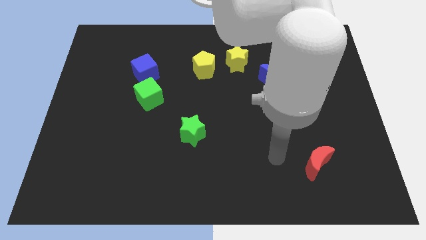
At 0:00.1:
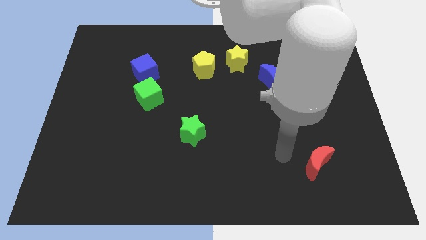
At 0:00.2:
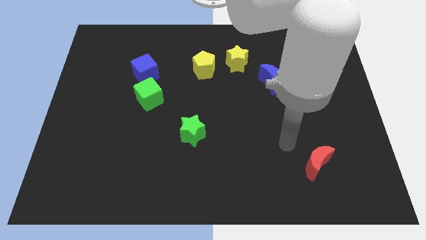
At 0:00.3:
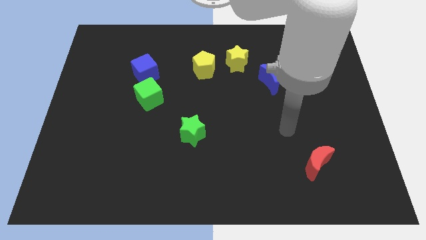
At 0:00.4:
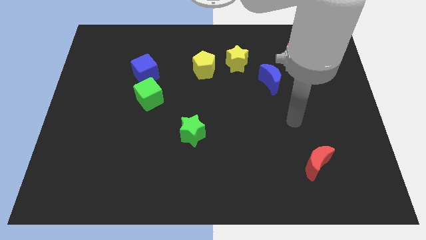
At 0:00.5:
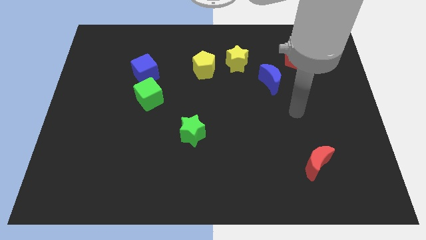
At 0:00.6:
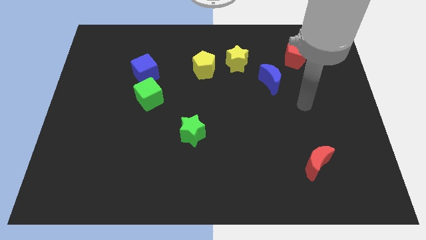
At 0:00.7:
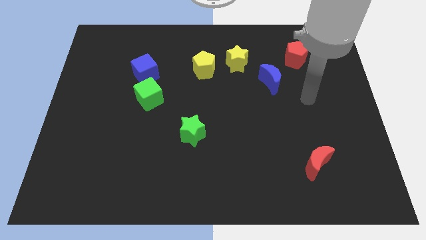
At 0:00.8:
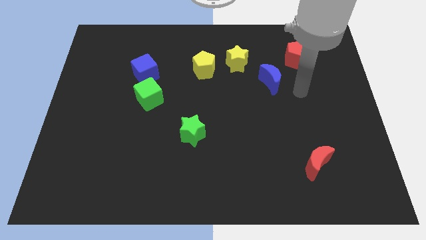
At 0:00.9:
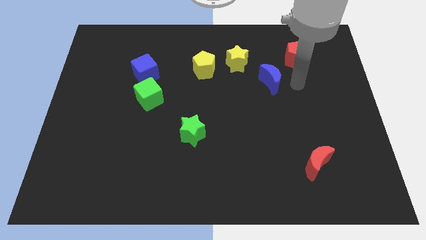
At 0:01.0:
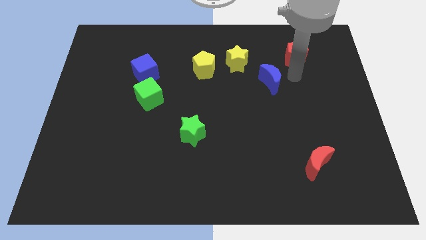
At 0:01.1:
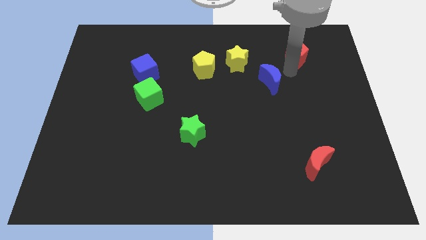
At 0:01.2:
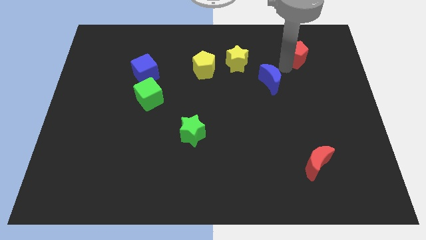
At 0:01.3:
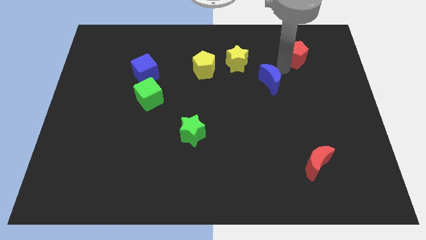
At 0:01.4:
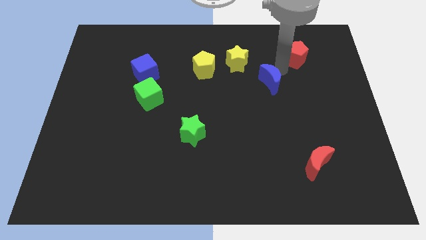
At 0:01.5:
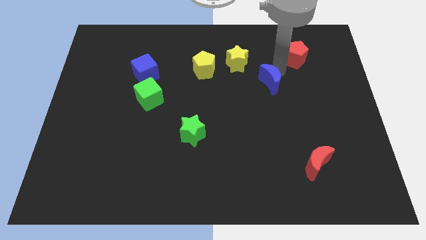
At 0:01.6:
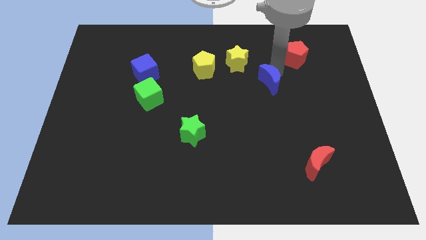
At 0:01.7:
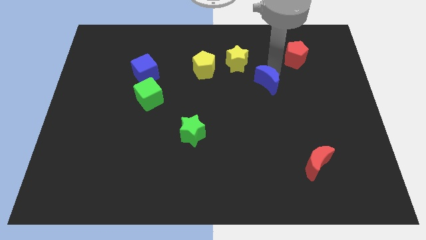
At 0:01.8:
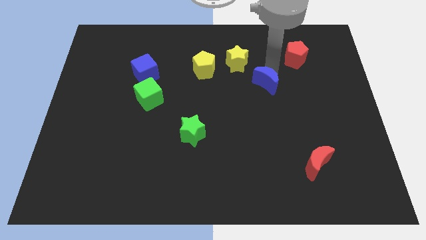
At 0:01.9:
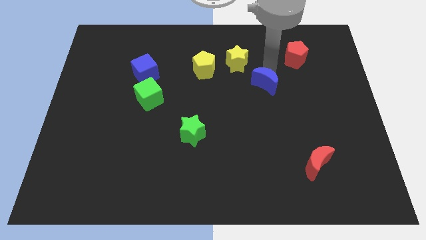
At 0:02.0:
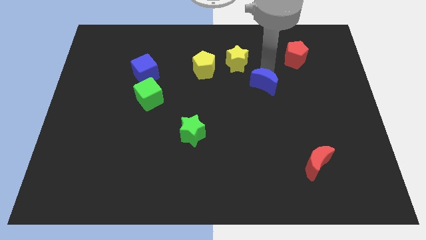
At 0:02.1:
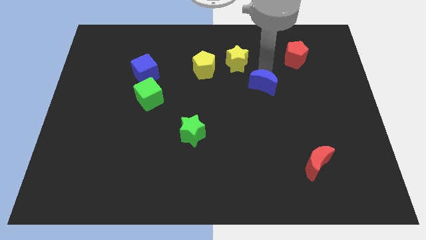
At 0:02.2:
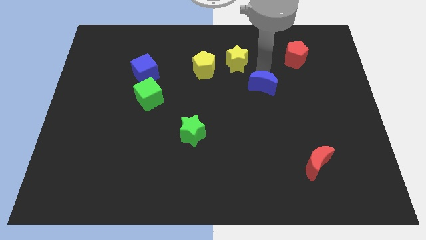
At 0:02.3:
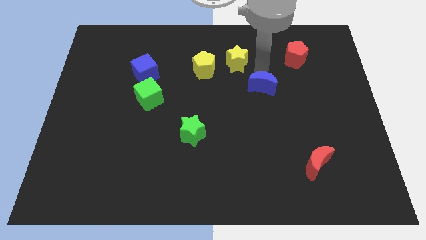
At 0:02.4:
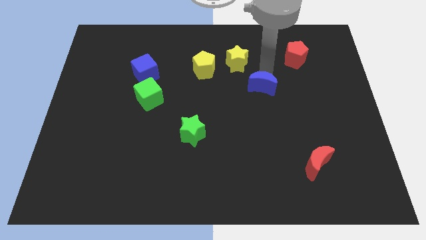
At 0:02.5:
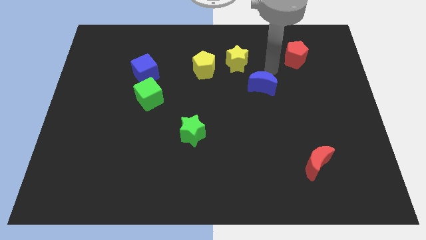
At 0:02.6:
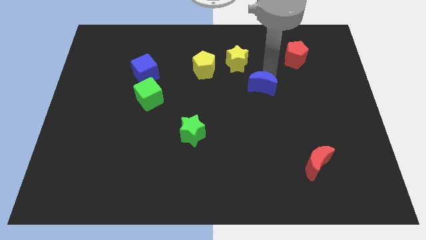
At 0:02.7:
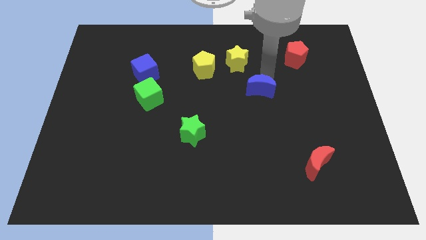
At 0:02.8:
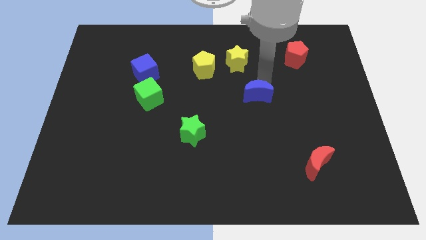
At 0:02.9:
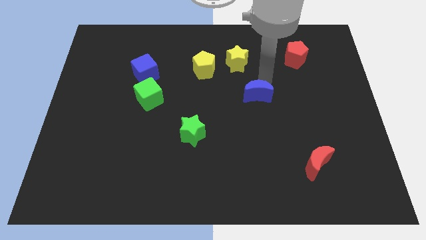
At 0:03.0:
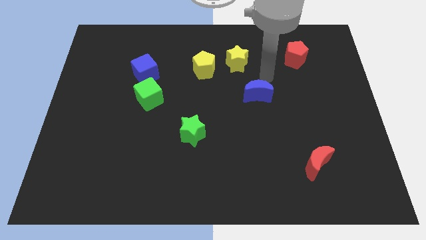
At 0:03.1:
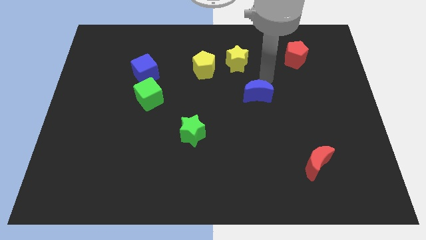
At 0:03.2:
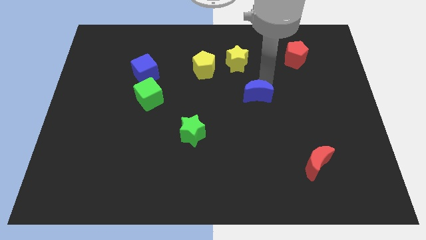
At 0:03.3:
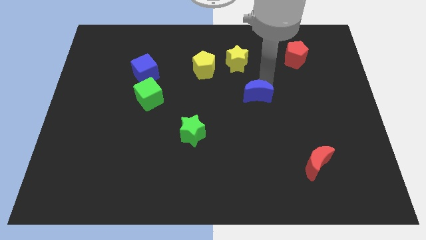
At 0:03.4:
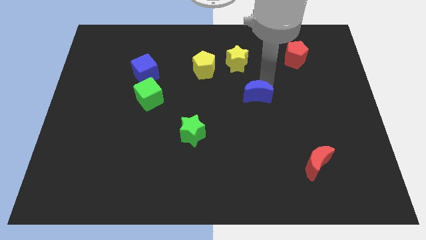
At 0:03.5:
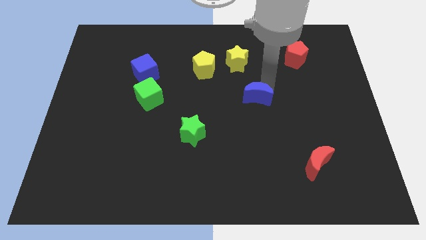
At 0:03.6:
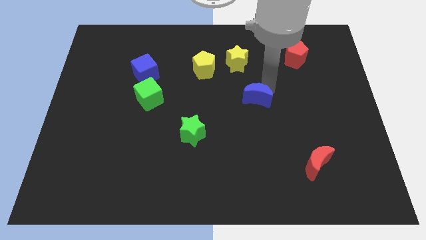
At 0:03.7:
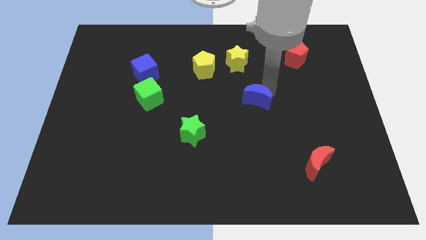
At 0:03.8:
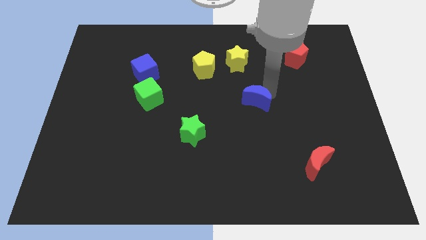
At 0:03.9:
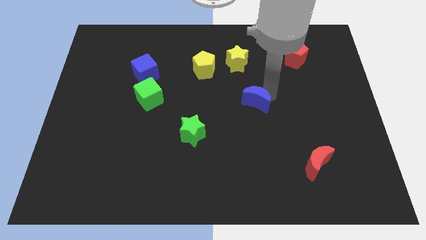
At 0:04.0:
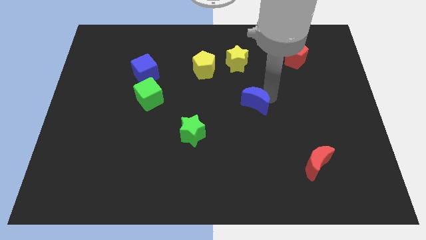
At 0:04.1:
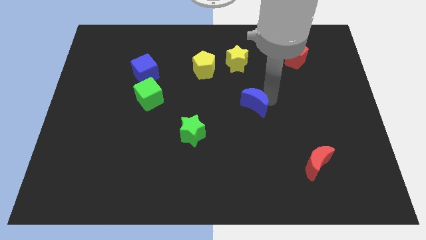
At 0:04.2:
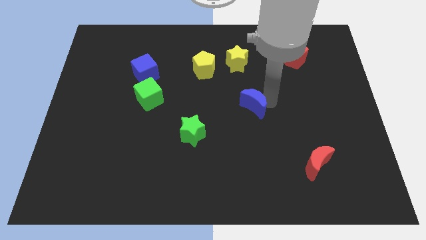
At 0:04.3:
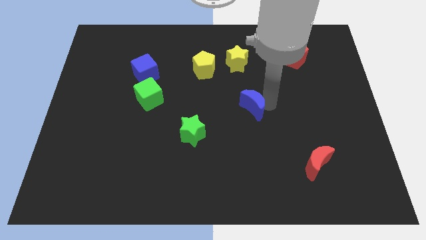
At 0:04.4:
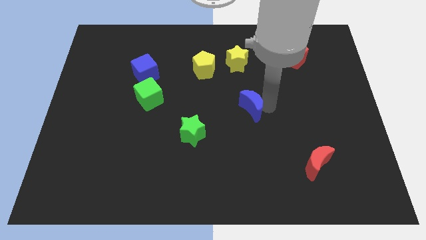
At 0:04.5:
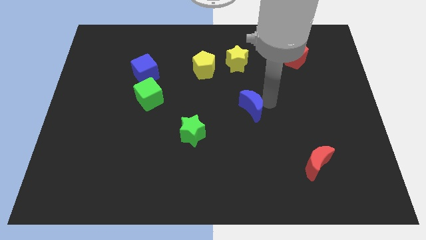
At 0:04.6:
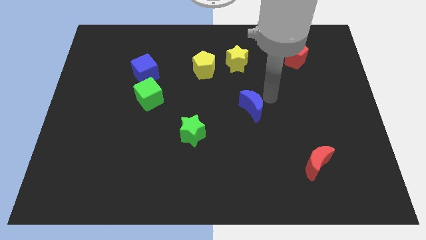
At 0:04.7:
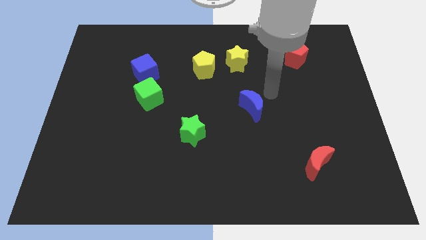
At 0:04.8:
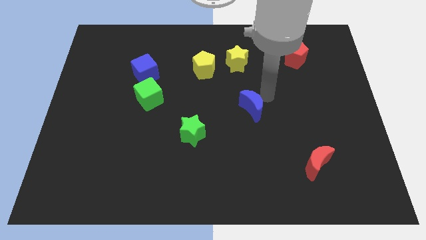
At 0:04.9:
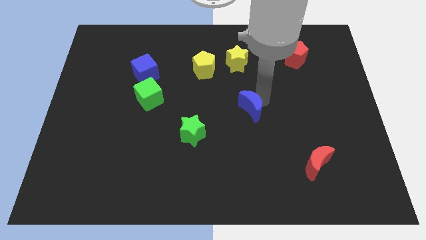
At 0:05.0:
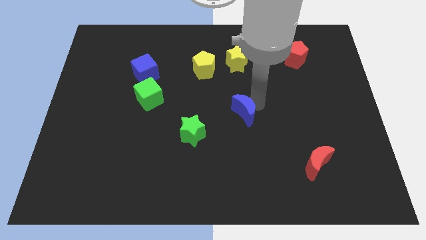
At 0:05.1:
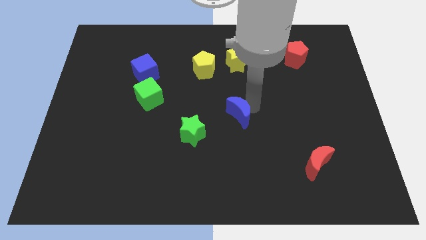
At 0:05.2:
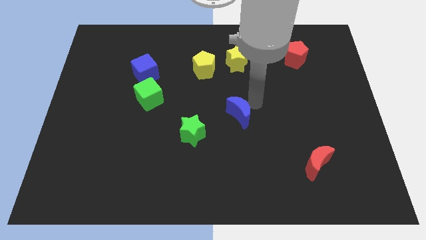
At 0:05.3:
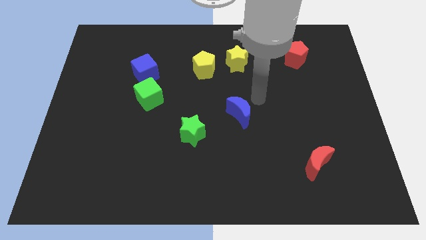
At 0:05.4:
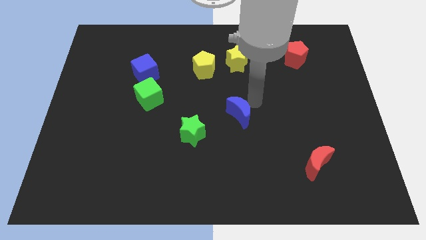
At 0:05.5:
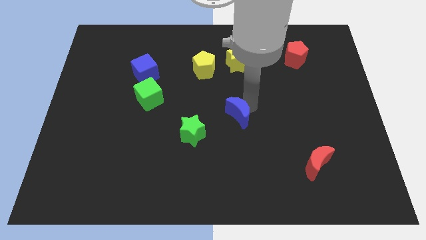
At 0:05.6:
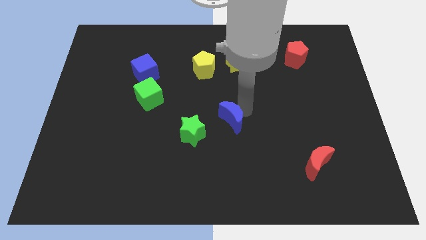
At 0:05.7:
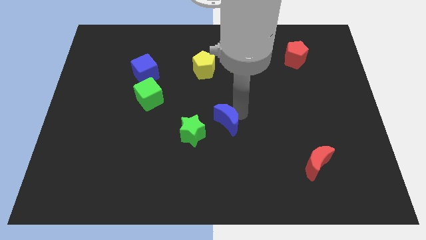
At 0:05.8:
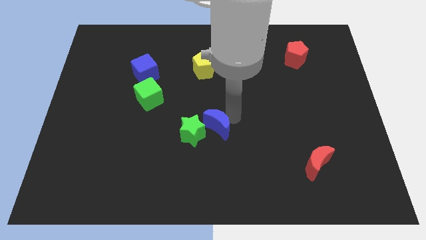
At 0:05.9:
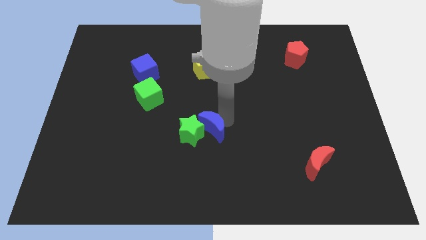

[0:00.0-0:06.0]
push the blue moon downwards and left

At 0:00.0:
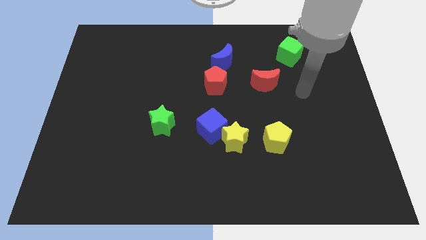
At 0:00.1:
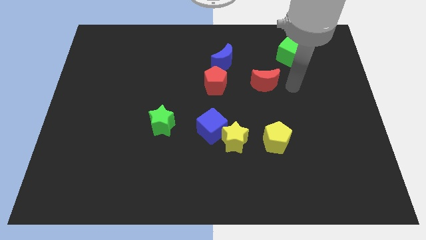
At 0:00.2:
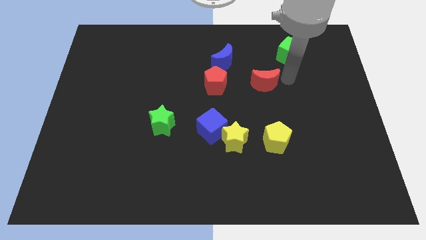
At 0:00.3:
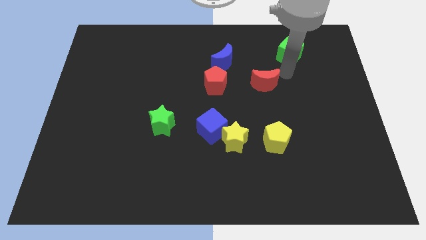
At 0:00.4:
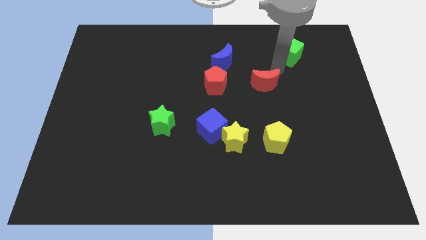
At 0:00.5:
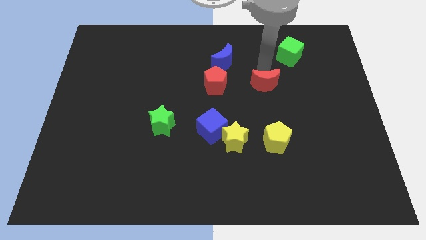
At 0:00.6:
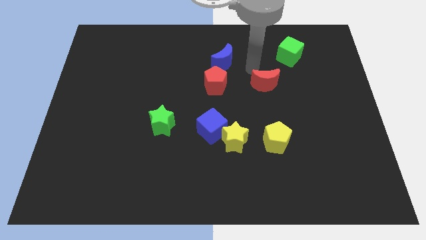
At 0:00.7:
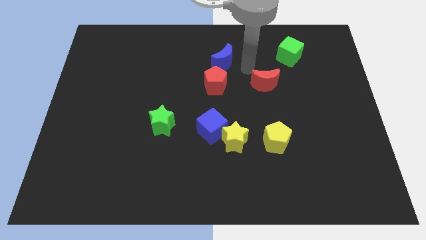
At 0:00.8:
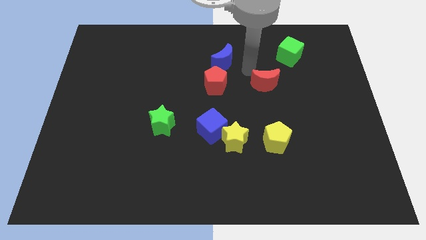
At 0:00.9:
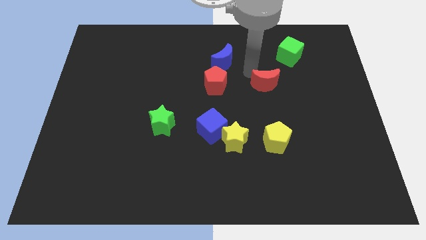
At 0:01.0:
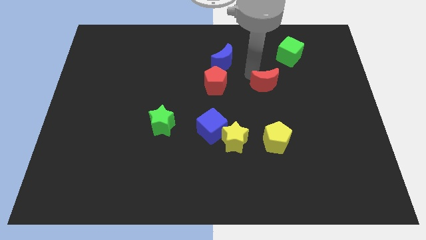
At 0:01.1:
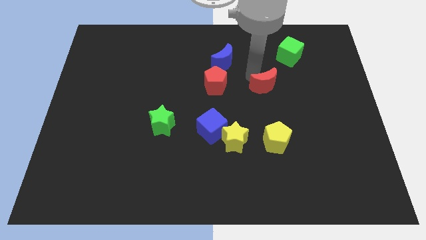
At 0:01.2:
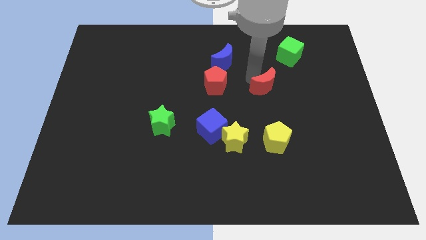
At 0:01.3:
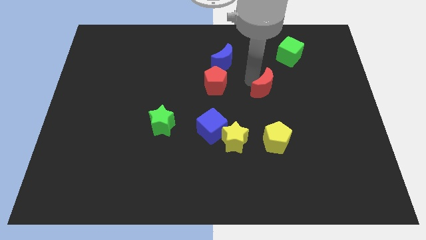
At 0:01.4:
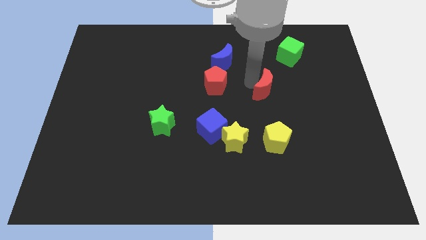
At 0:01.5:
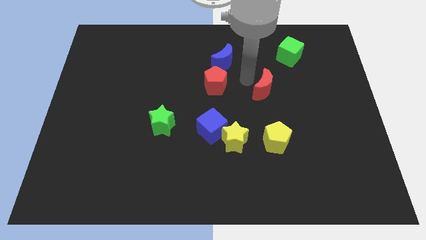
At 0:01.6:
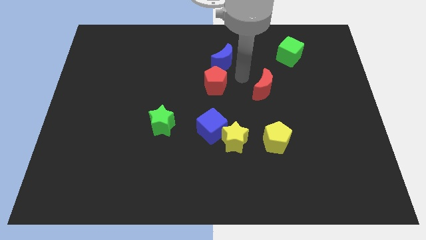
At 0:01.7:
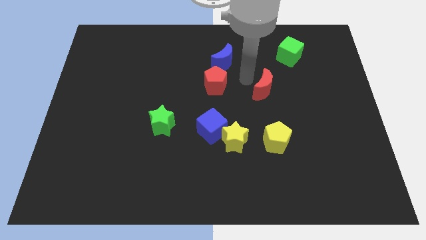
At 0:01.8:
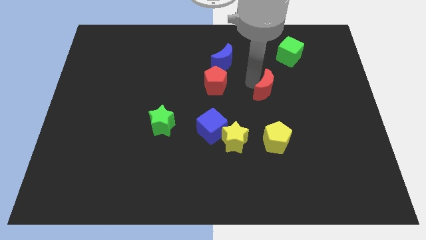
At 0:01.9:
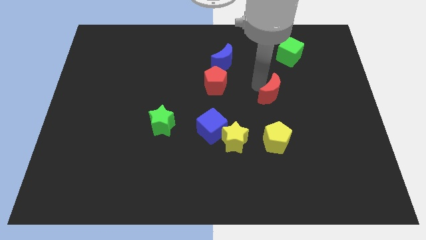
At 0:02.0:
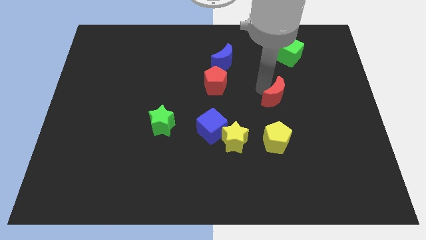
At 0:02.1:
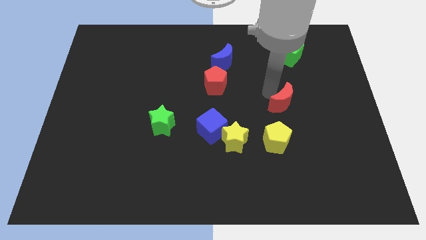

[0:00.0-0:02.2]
push the red moon diagonally down and right a bit
